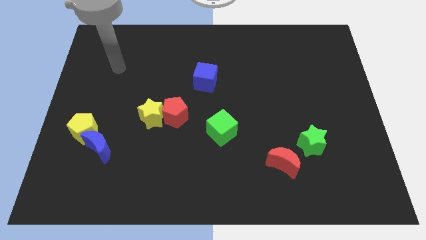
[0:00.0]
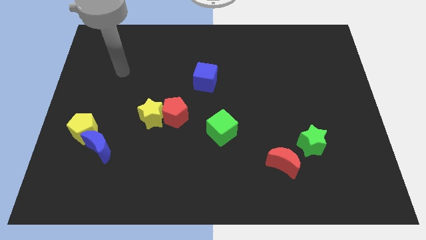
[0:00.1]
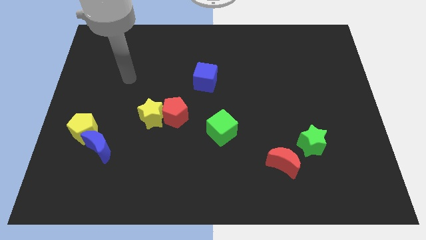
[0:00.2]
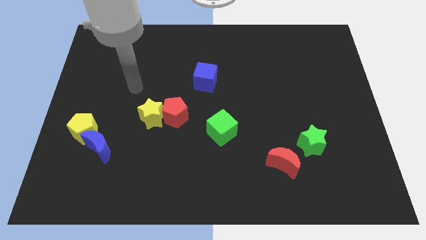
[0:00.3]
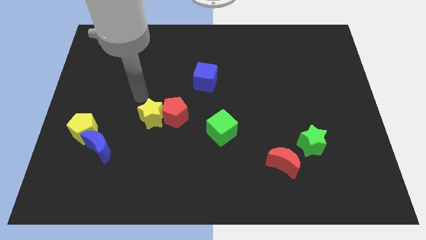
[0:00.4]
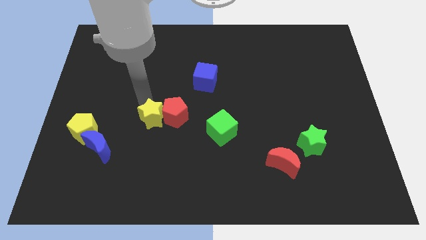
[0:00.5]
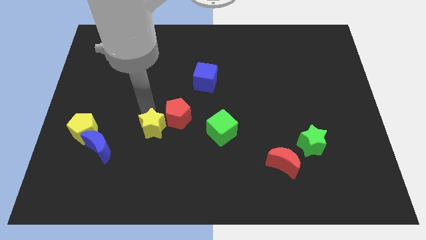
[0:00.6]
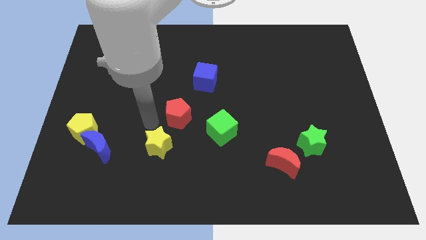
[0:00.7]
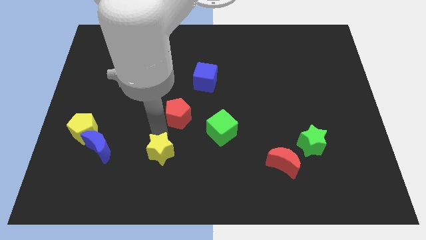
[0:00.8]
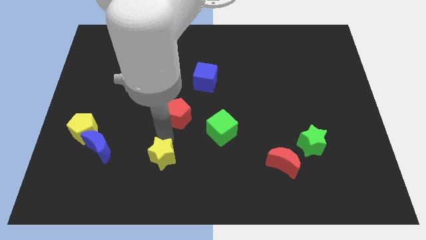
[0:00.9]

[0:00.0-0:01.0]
move the red pentagon away from the yellow star

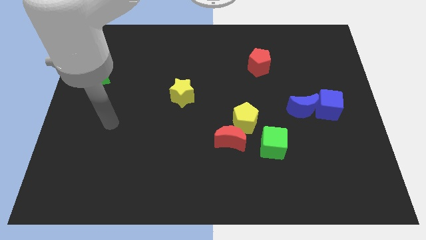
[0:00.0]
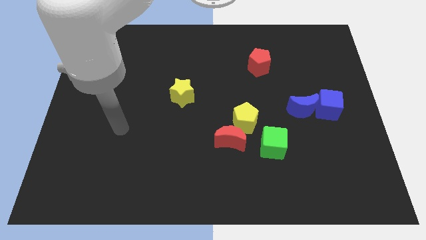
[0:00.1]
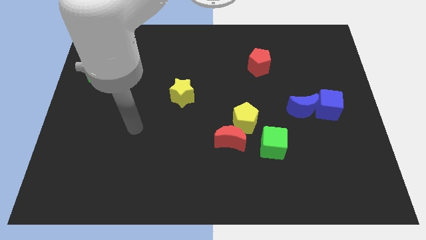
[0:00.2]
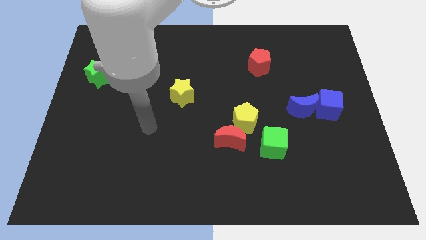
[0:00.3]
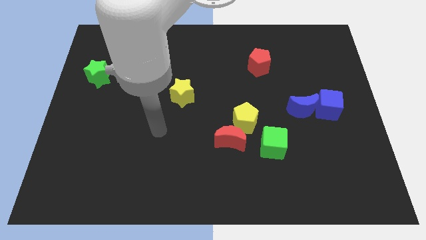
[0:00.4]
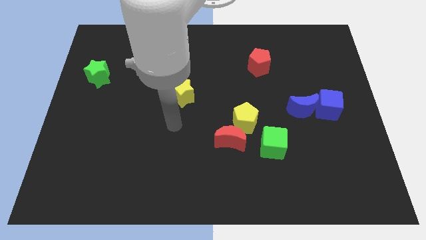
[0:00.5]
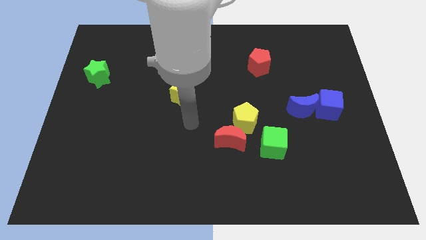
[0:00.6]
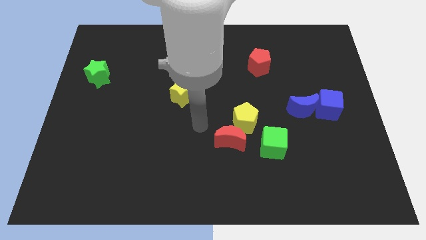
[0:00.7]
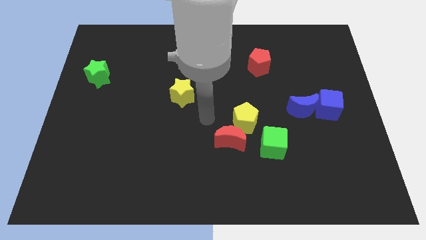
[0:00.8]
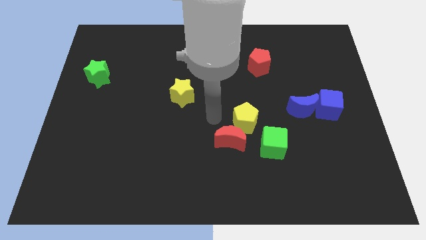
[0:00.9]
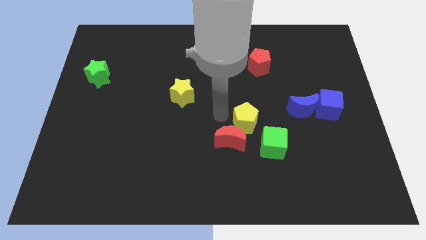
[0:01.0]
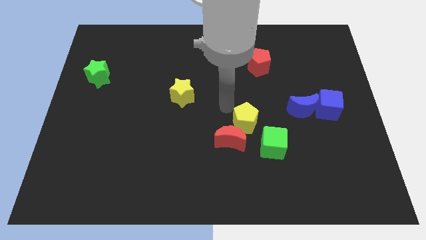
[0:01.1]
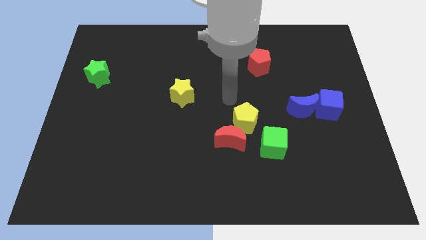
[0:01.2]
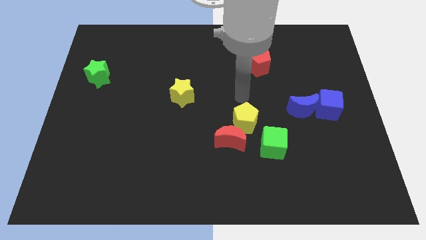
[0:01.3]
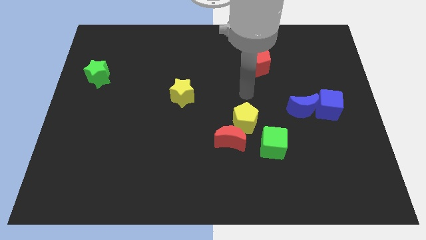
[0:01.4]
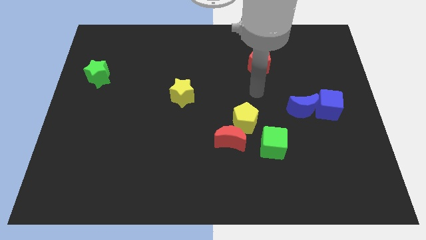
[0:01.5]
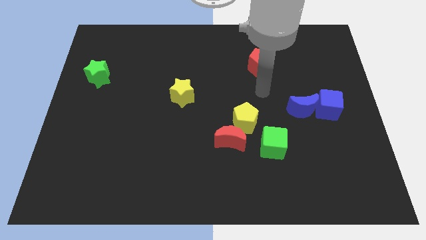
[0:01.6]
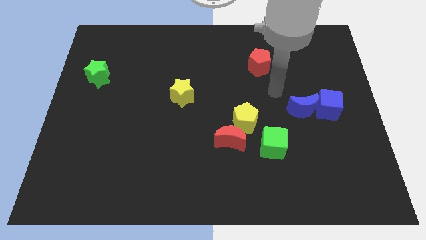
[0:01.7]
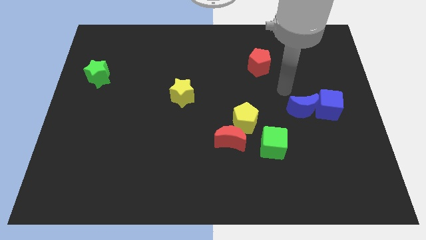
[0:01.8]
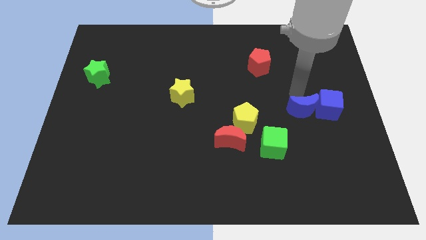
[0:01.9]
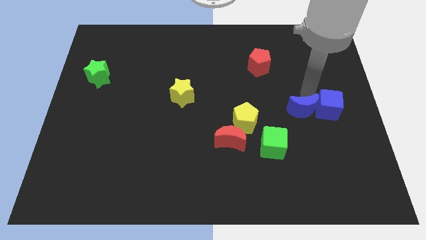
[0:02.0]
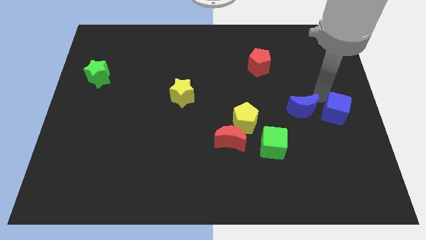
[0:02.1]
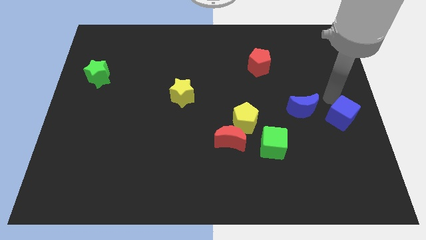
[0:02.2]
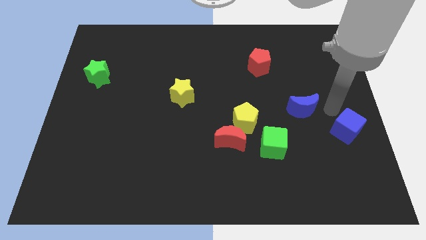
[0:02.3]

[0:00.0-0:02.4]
move the blue moon away from the blue cube

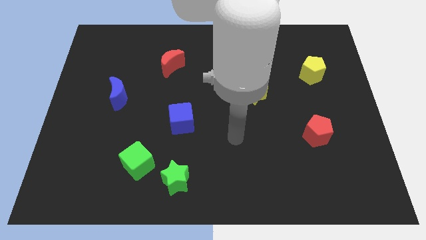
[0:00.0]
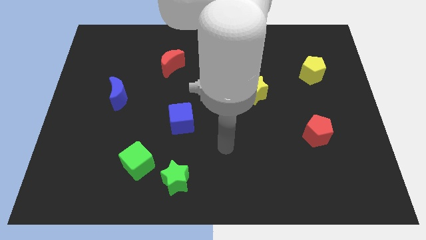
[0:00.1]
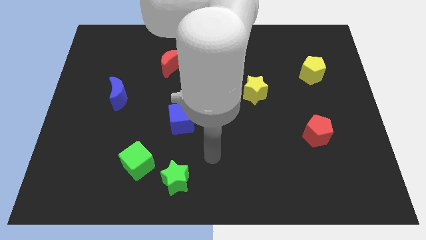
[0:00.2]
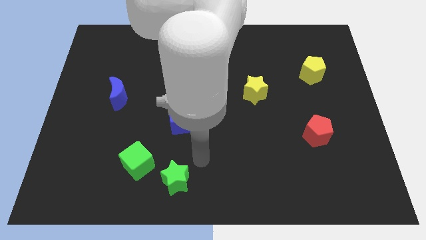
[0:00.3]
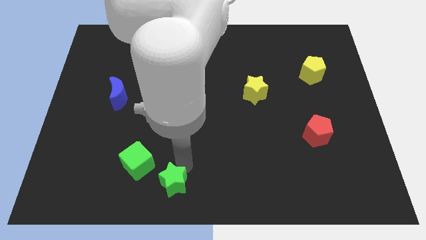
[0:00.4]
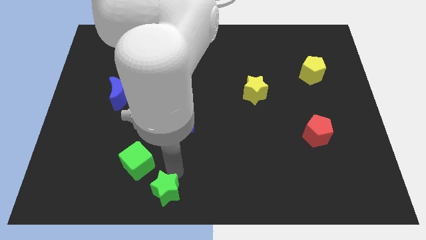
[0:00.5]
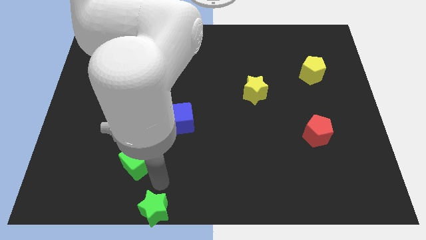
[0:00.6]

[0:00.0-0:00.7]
pull the green cube apart from the green star

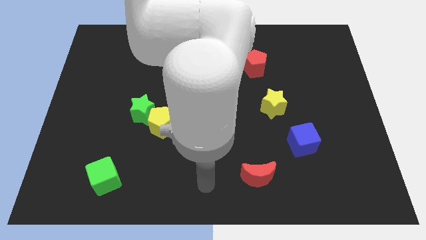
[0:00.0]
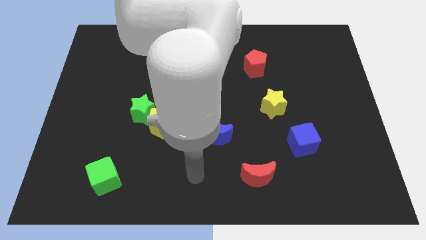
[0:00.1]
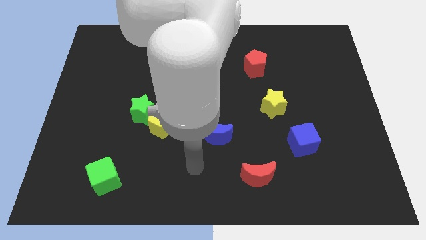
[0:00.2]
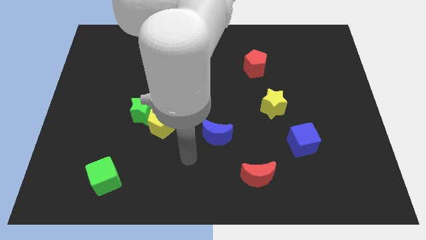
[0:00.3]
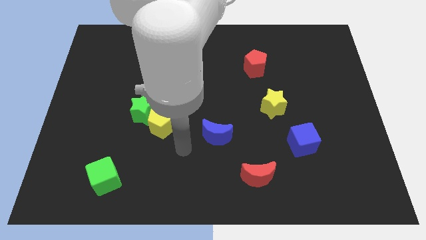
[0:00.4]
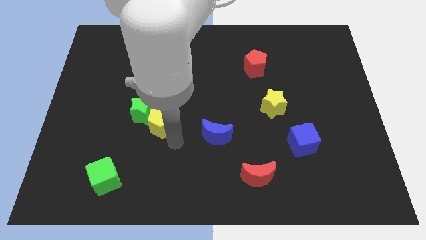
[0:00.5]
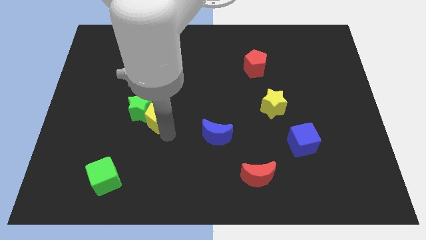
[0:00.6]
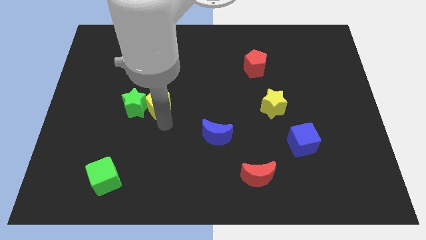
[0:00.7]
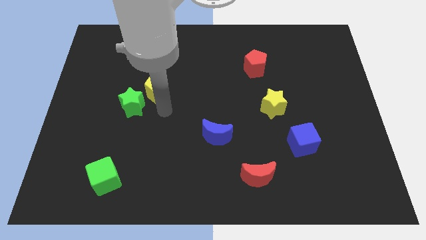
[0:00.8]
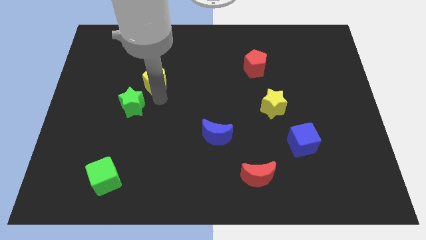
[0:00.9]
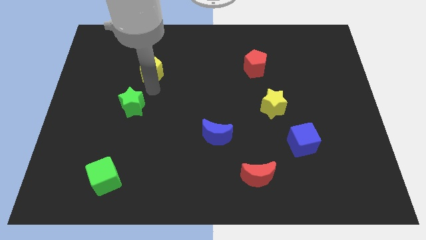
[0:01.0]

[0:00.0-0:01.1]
move the green star away from the yellow pentagon

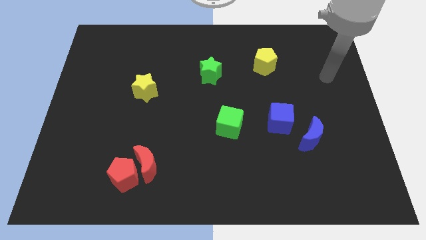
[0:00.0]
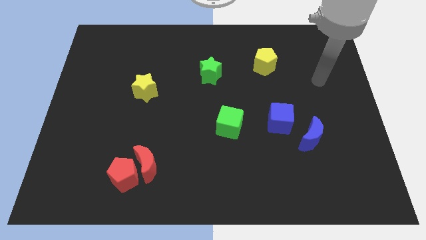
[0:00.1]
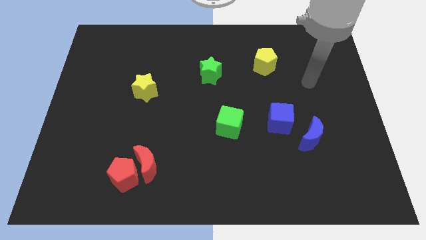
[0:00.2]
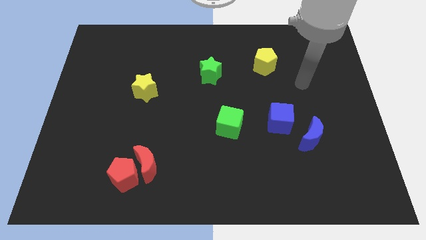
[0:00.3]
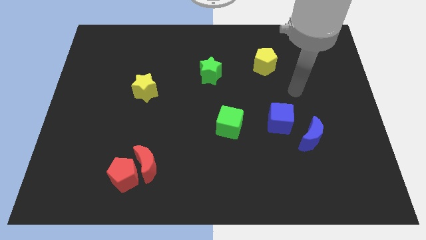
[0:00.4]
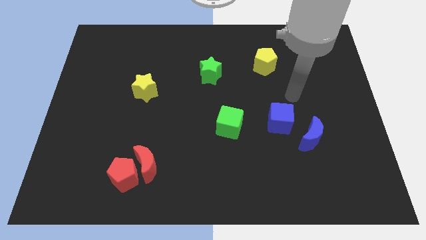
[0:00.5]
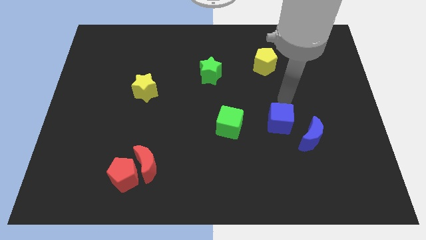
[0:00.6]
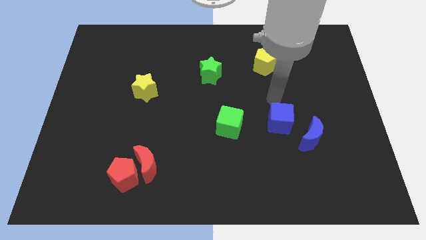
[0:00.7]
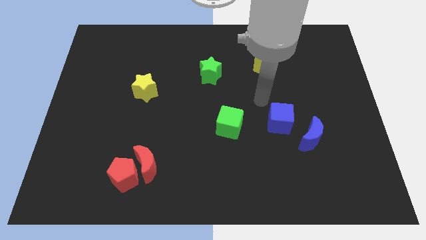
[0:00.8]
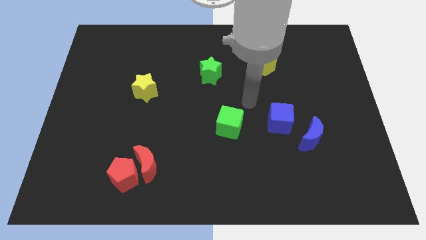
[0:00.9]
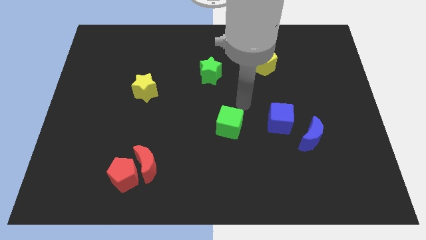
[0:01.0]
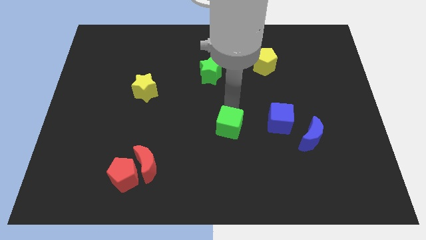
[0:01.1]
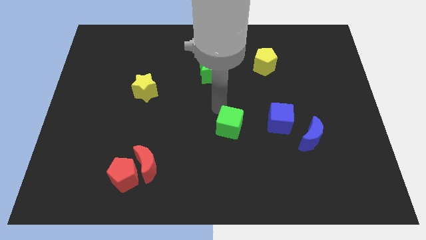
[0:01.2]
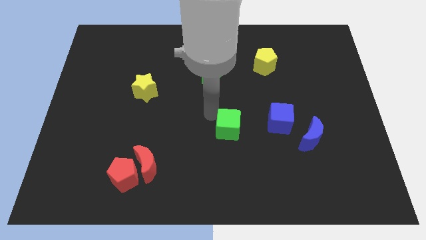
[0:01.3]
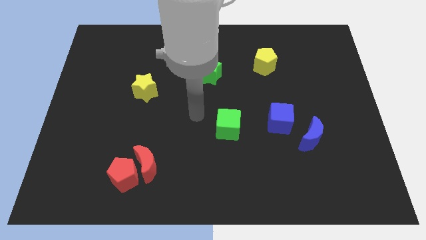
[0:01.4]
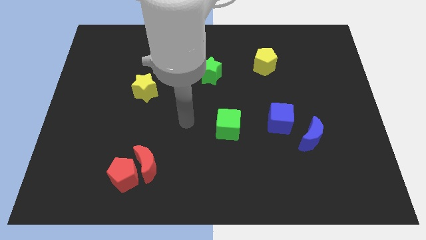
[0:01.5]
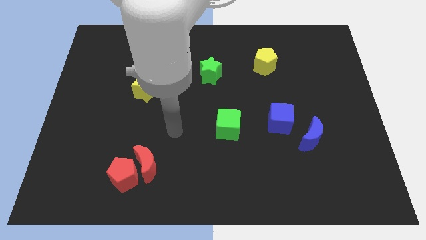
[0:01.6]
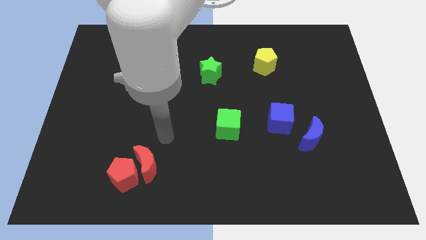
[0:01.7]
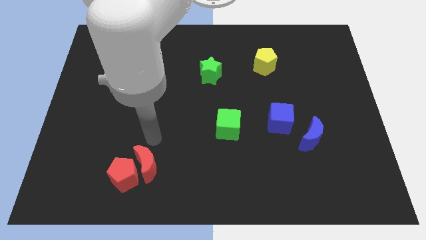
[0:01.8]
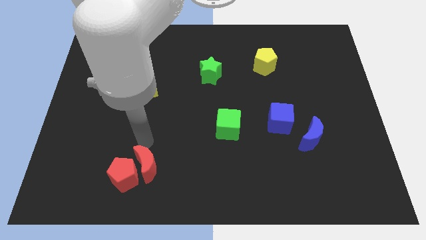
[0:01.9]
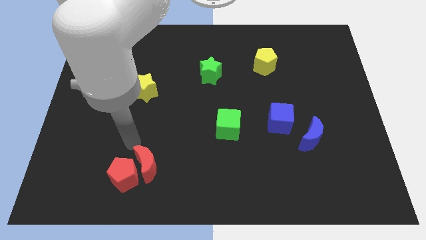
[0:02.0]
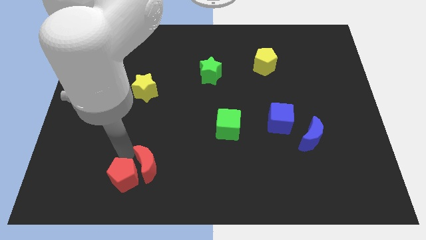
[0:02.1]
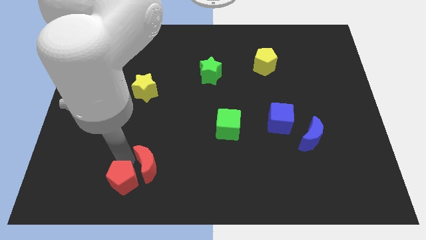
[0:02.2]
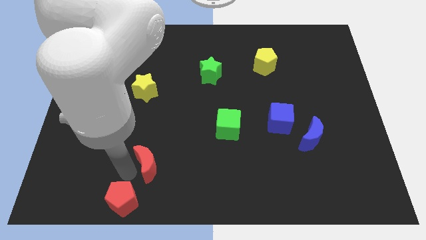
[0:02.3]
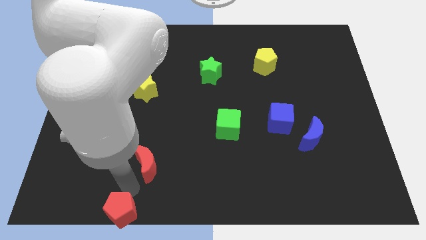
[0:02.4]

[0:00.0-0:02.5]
move the red moon away from the red pentagon

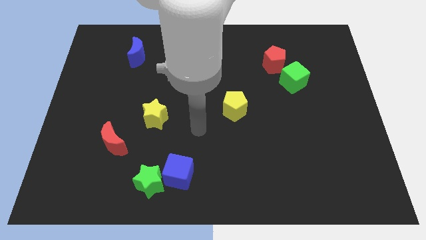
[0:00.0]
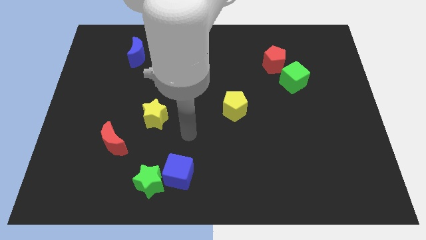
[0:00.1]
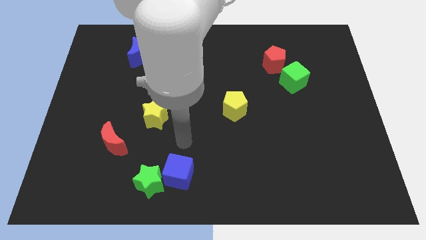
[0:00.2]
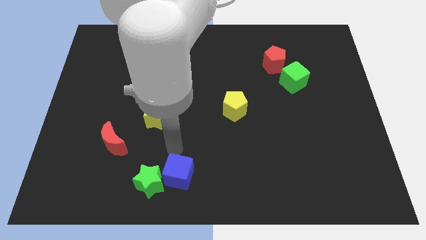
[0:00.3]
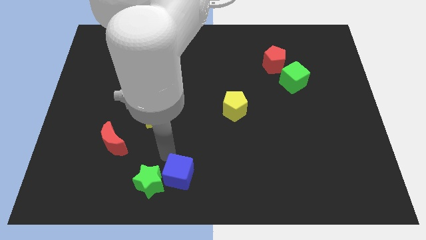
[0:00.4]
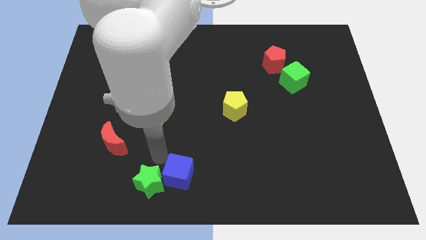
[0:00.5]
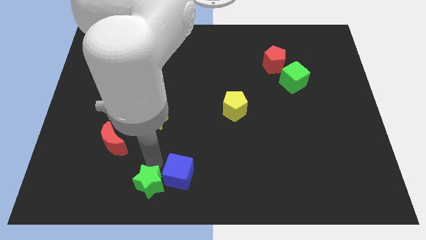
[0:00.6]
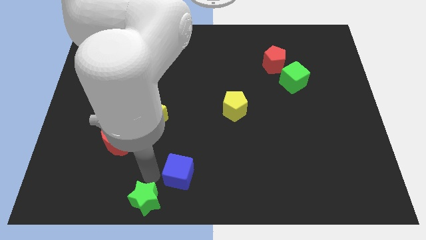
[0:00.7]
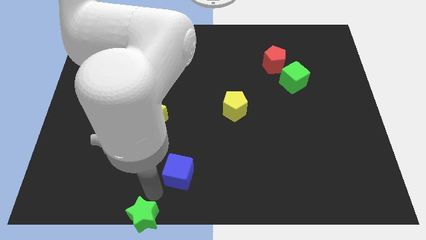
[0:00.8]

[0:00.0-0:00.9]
separate the blue cube from the green star

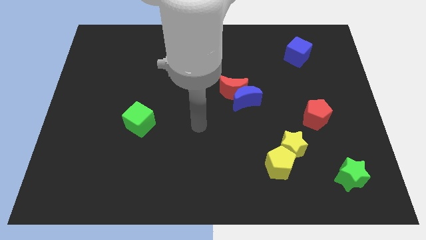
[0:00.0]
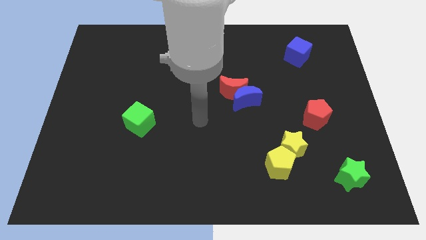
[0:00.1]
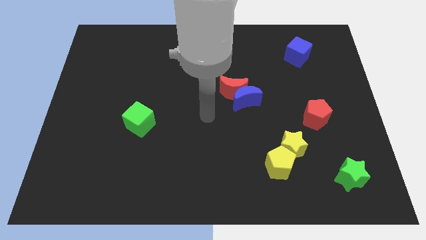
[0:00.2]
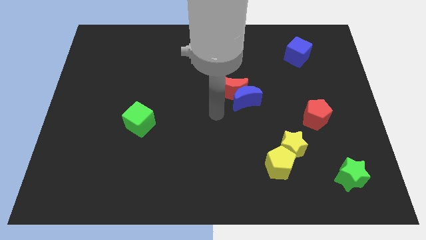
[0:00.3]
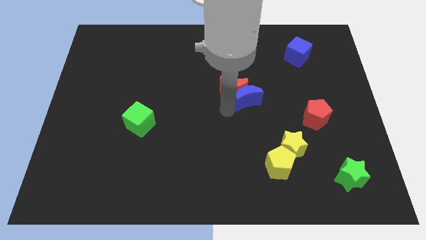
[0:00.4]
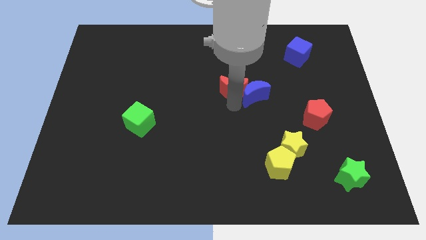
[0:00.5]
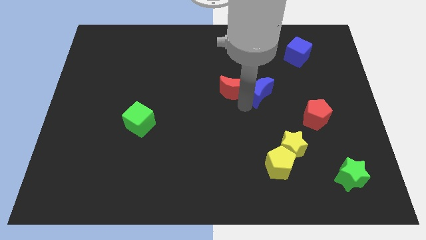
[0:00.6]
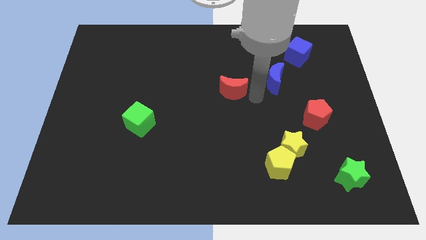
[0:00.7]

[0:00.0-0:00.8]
separate the red moon from the blue moon
